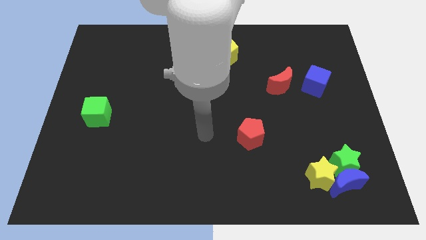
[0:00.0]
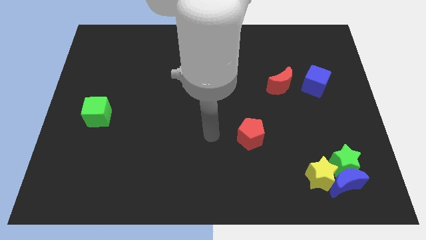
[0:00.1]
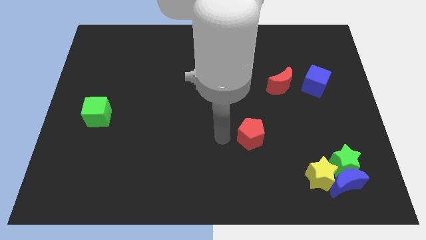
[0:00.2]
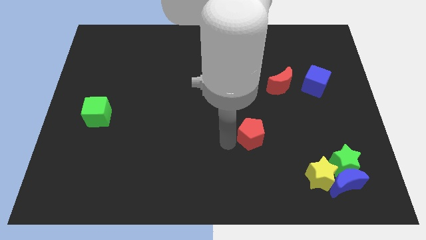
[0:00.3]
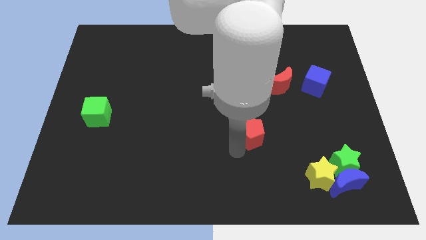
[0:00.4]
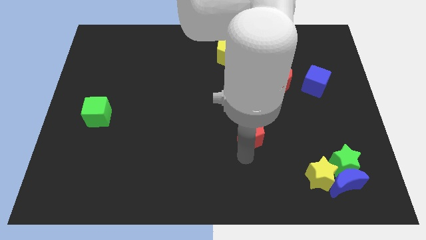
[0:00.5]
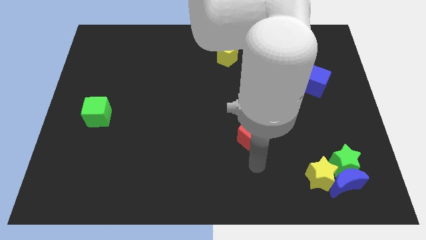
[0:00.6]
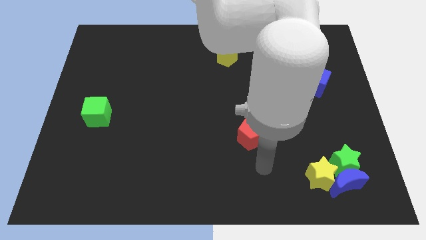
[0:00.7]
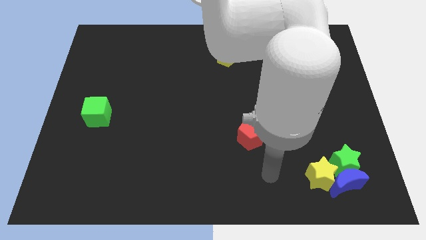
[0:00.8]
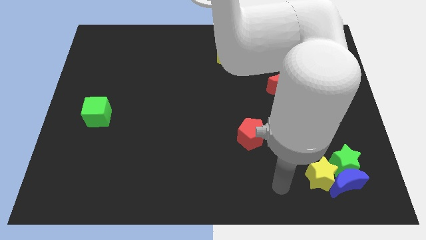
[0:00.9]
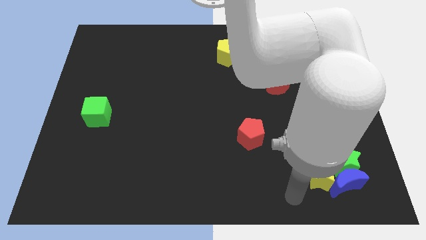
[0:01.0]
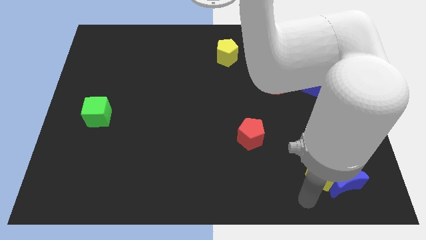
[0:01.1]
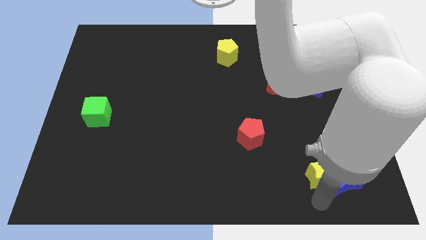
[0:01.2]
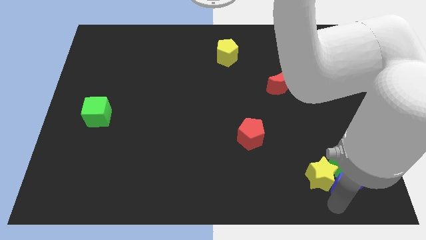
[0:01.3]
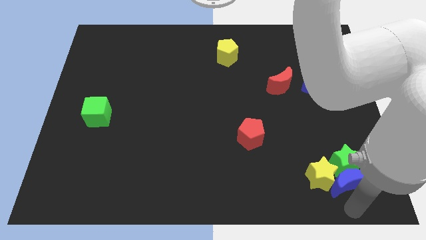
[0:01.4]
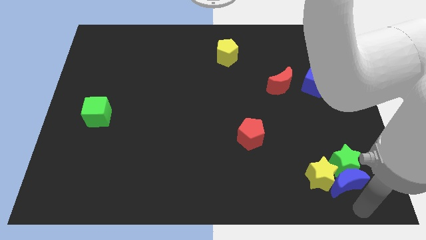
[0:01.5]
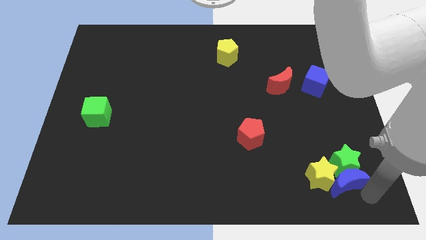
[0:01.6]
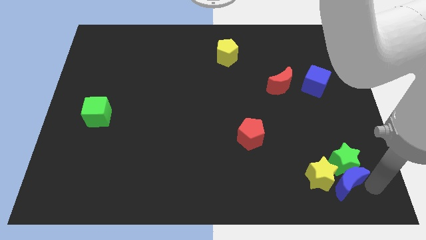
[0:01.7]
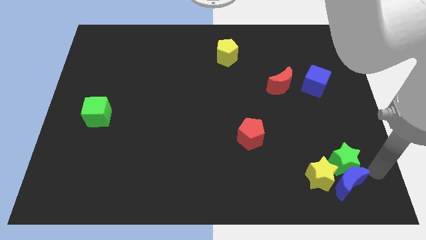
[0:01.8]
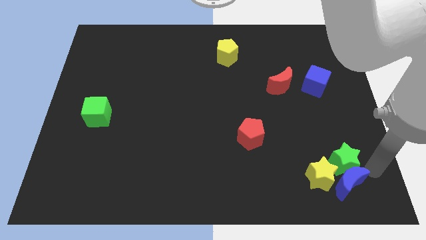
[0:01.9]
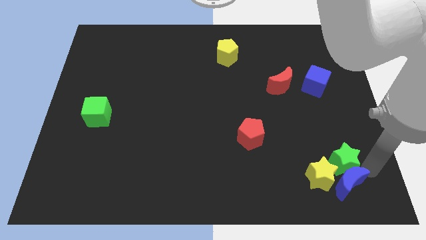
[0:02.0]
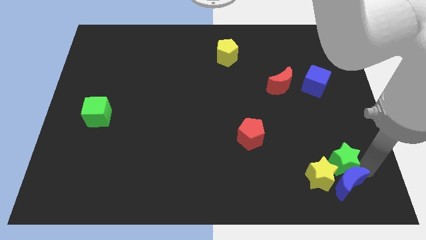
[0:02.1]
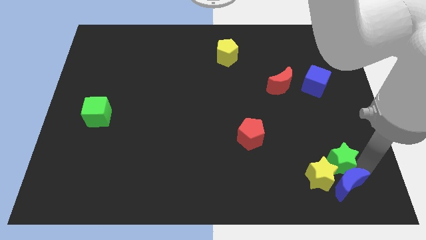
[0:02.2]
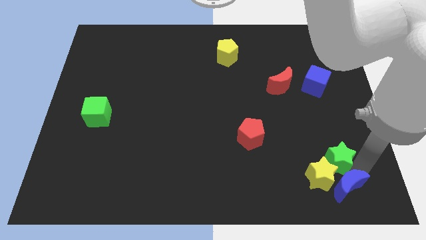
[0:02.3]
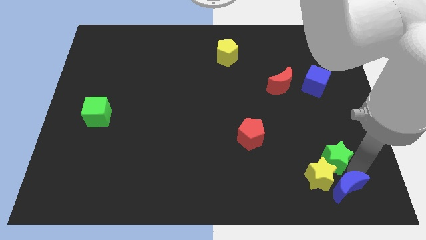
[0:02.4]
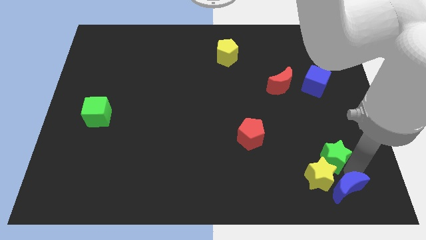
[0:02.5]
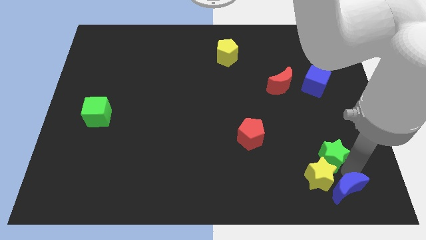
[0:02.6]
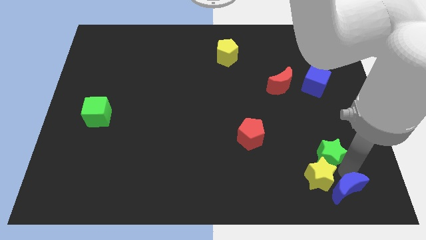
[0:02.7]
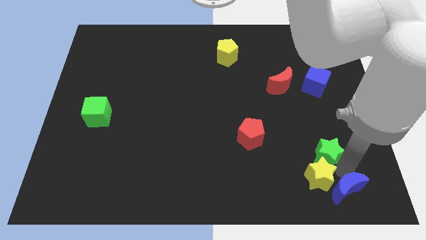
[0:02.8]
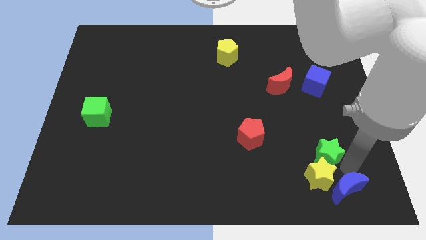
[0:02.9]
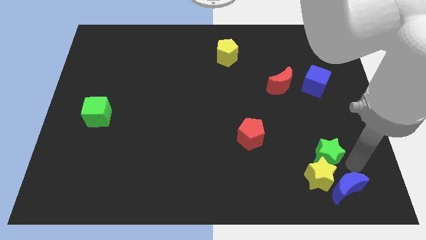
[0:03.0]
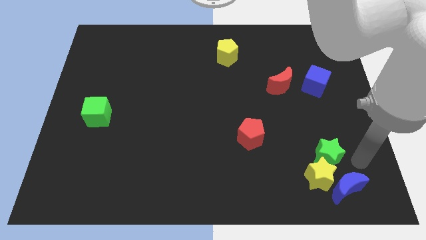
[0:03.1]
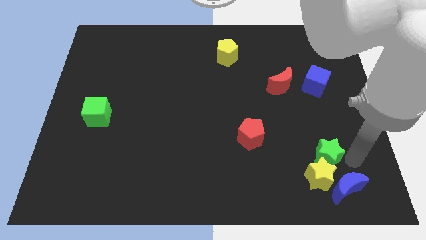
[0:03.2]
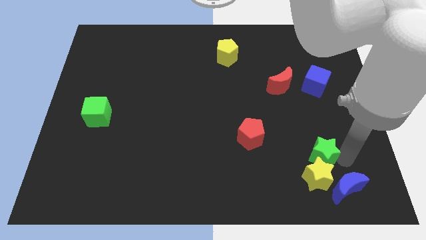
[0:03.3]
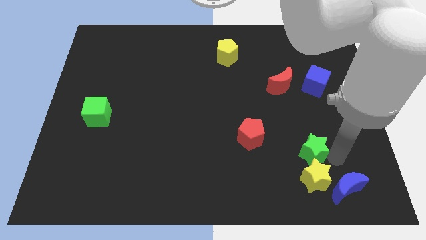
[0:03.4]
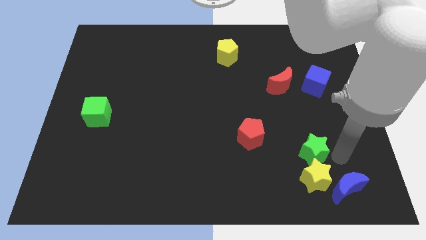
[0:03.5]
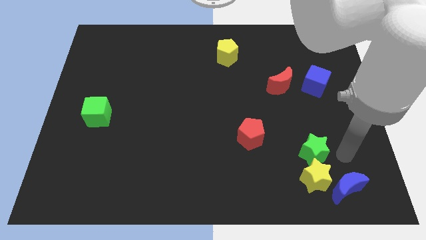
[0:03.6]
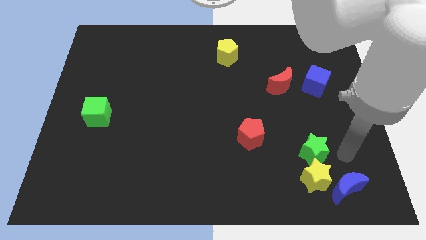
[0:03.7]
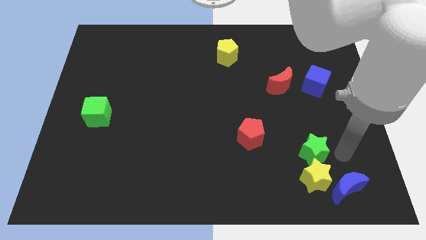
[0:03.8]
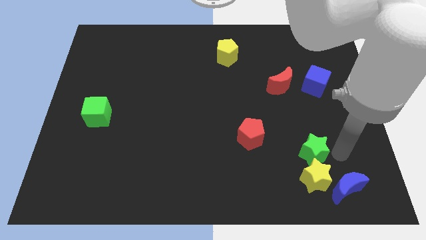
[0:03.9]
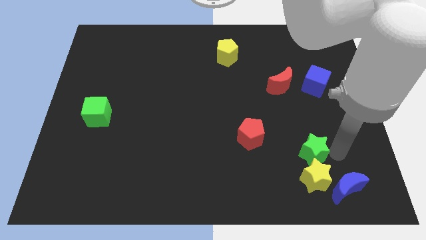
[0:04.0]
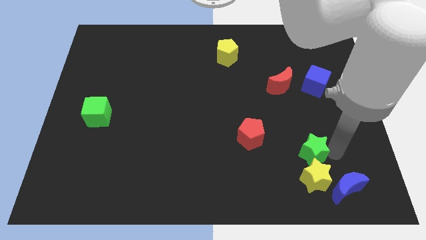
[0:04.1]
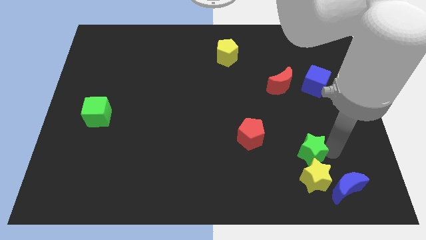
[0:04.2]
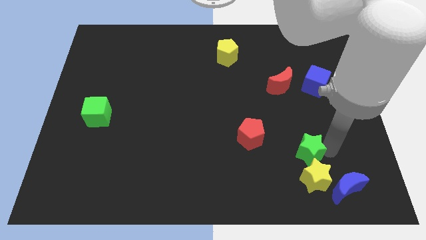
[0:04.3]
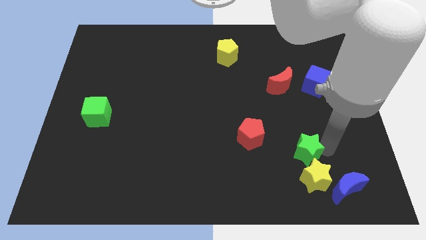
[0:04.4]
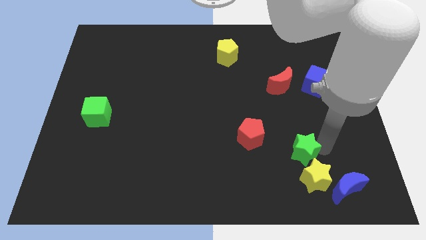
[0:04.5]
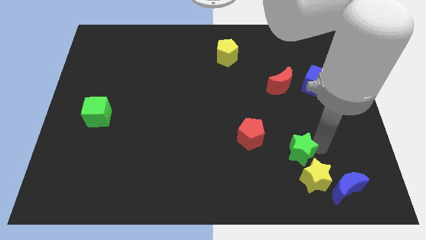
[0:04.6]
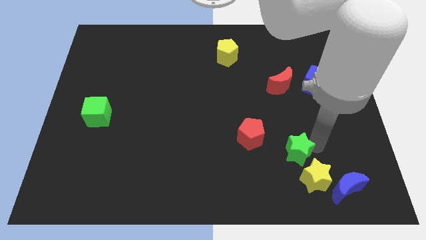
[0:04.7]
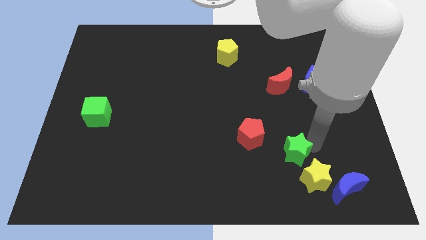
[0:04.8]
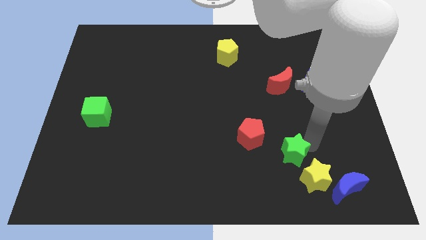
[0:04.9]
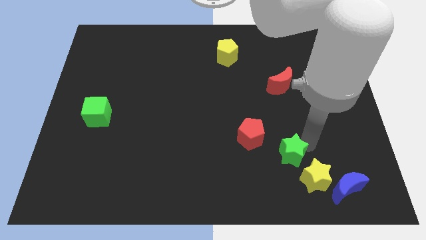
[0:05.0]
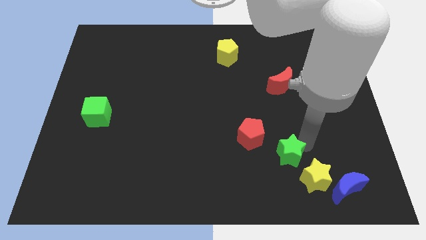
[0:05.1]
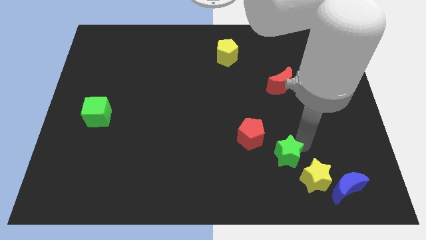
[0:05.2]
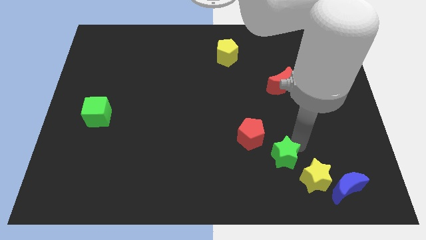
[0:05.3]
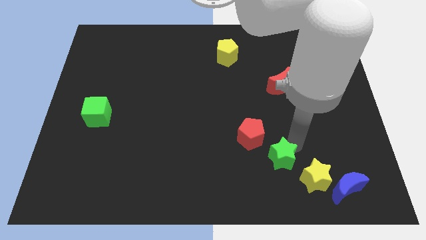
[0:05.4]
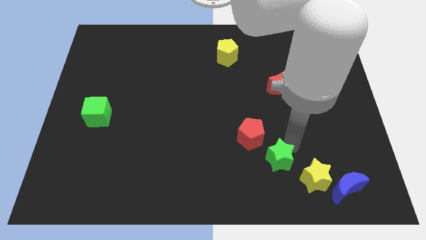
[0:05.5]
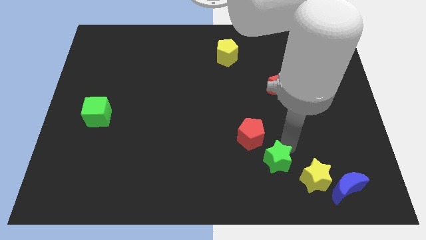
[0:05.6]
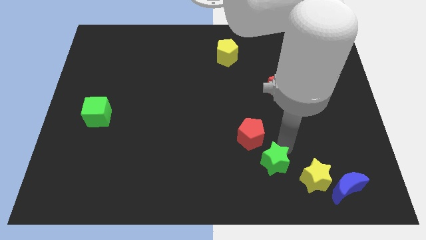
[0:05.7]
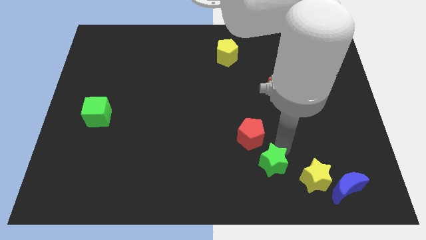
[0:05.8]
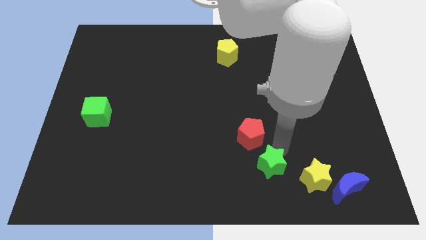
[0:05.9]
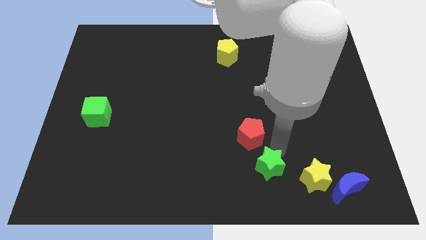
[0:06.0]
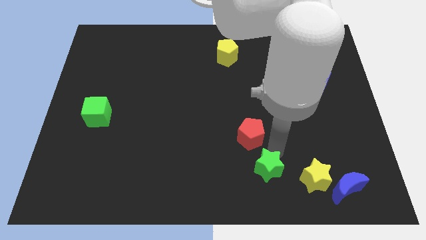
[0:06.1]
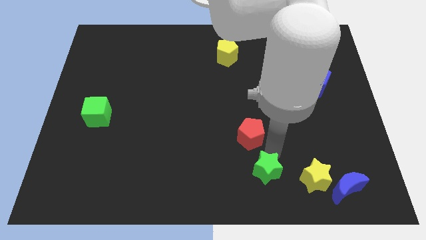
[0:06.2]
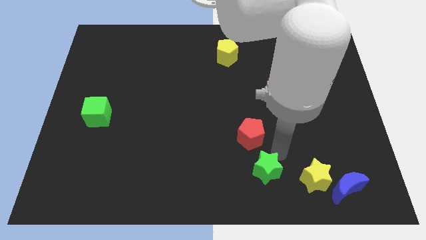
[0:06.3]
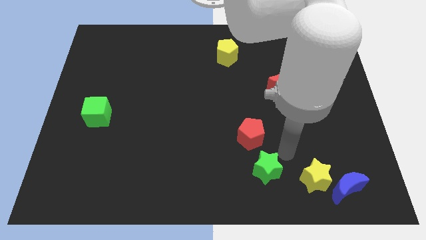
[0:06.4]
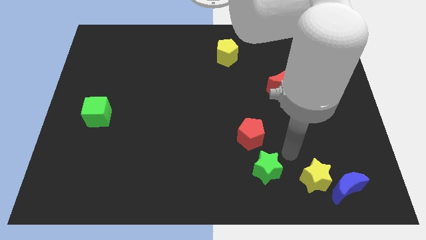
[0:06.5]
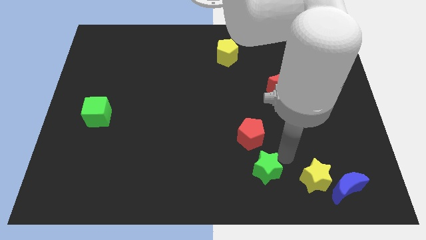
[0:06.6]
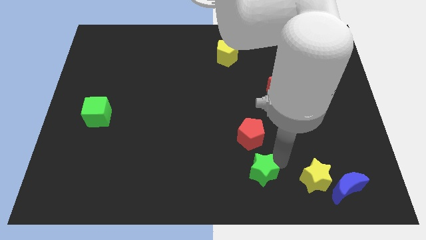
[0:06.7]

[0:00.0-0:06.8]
move the green star to the bottom
